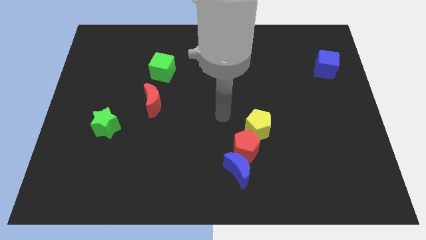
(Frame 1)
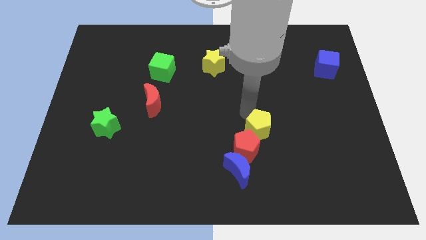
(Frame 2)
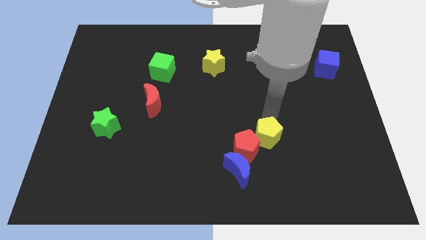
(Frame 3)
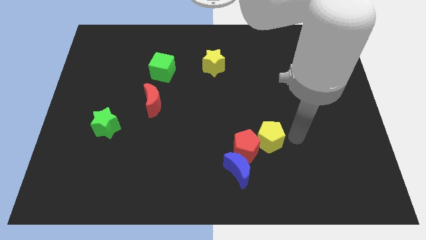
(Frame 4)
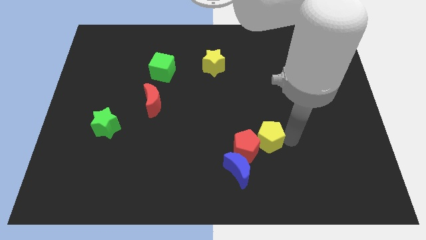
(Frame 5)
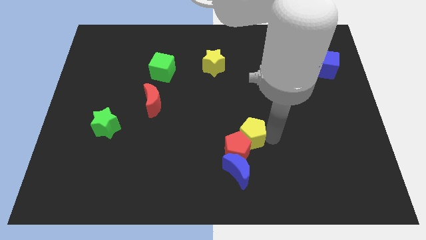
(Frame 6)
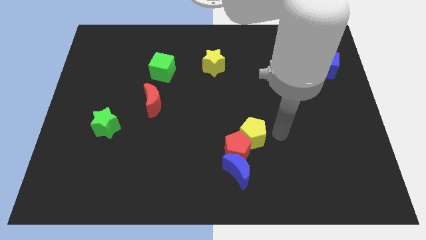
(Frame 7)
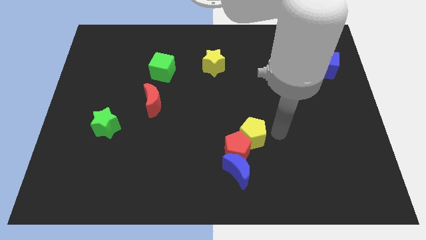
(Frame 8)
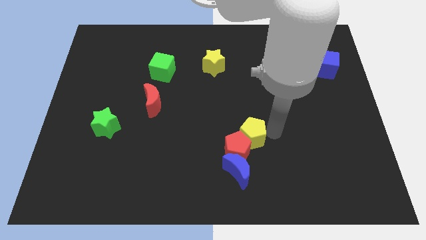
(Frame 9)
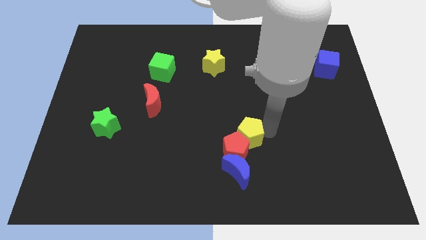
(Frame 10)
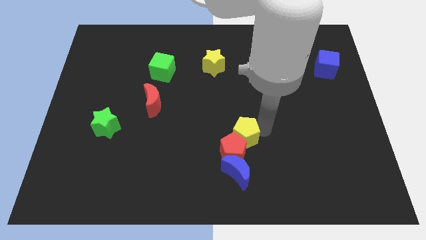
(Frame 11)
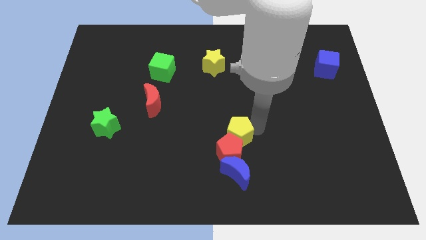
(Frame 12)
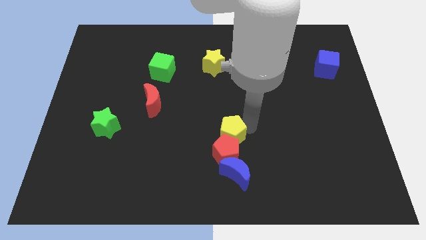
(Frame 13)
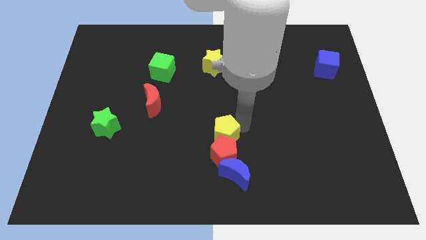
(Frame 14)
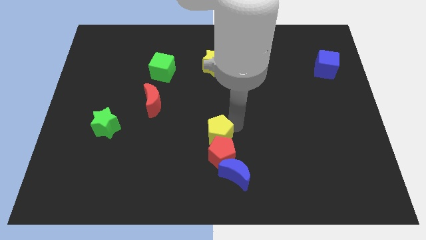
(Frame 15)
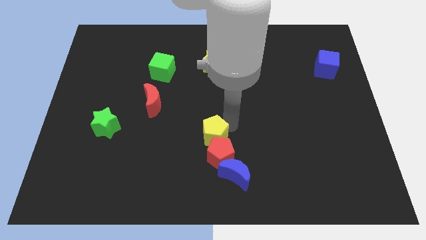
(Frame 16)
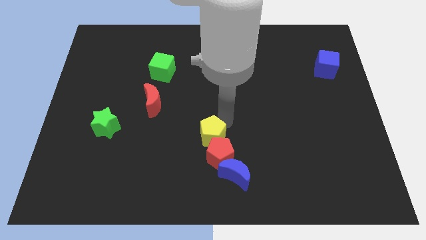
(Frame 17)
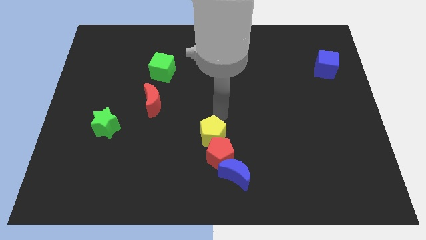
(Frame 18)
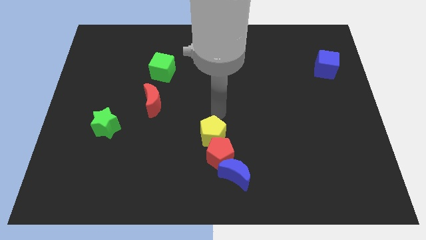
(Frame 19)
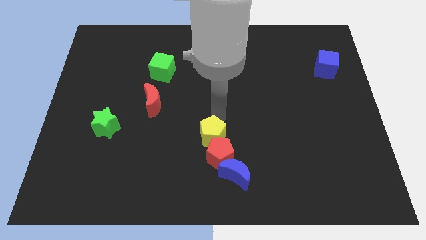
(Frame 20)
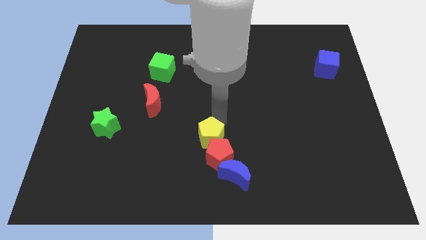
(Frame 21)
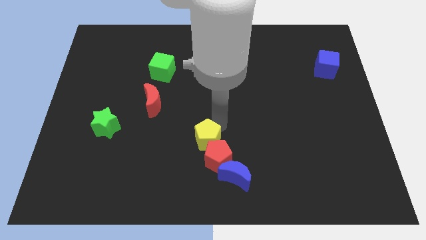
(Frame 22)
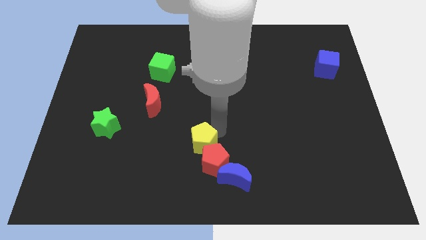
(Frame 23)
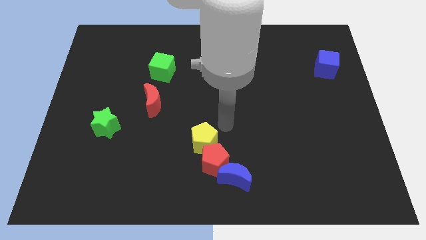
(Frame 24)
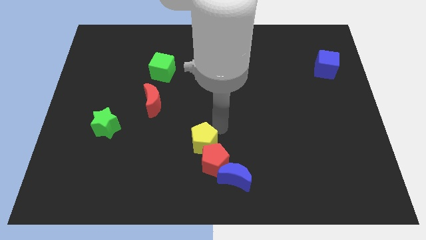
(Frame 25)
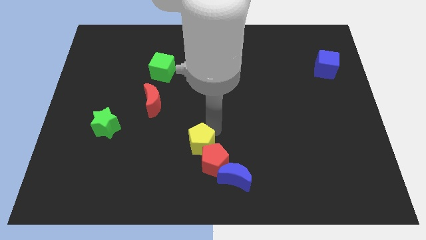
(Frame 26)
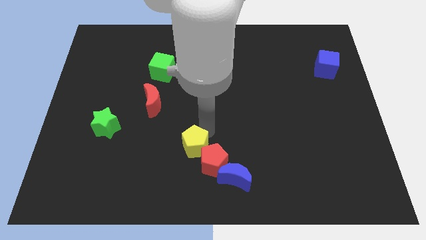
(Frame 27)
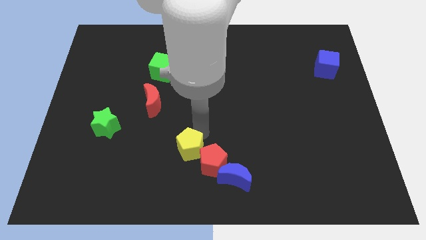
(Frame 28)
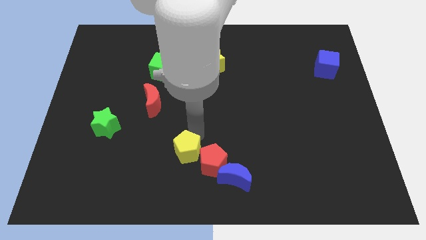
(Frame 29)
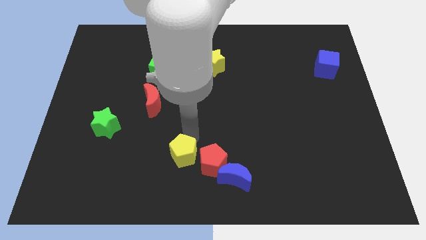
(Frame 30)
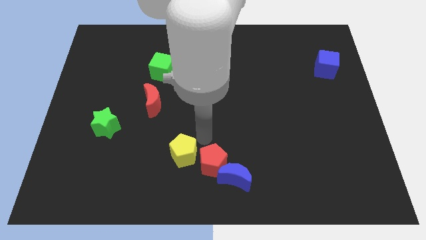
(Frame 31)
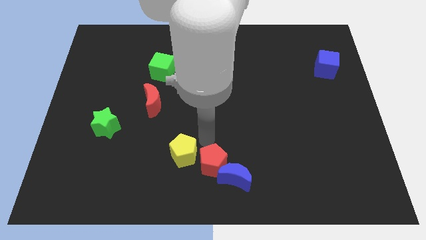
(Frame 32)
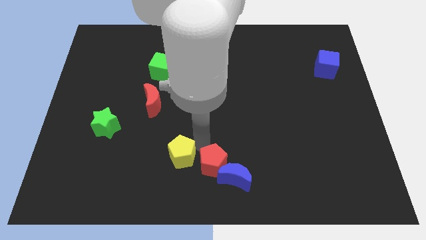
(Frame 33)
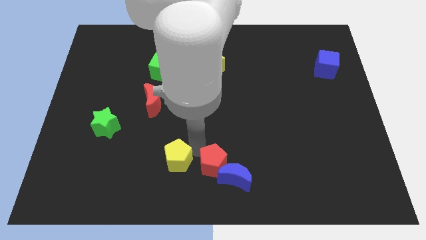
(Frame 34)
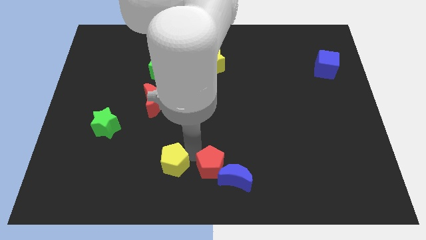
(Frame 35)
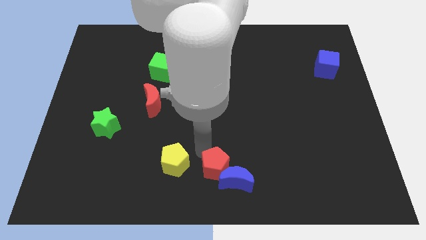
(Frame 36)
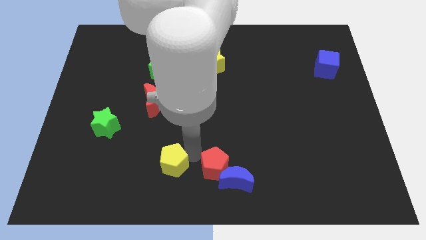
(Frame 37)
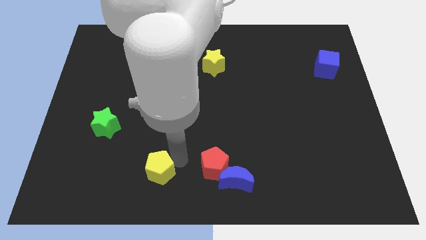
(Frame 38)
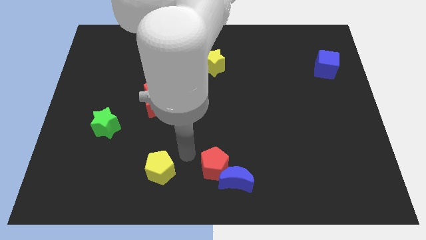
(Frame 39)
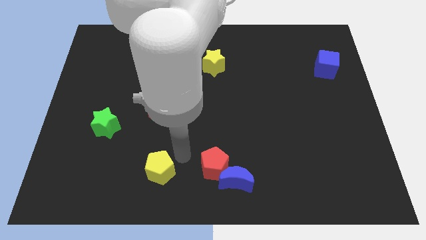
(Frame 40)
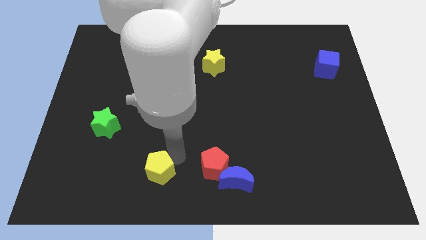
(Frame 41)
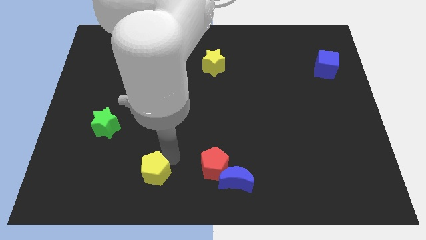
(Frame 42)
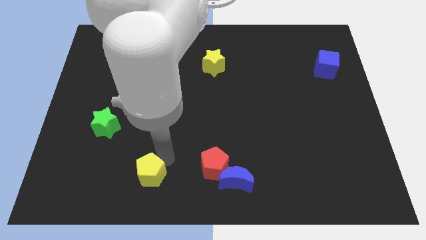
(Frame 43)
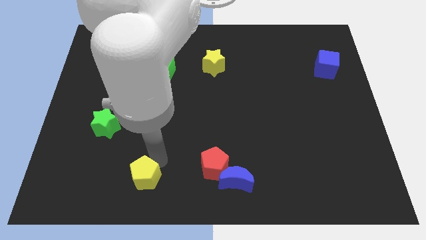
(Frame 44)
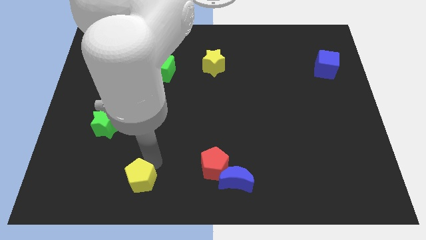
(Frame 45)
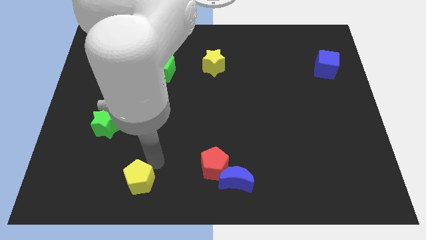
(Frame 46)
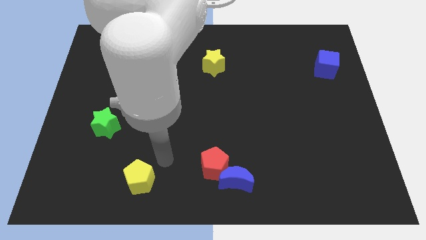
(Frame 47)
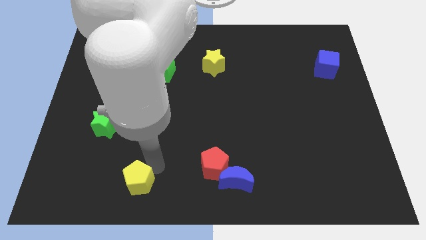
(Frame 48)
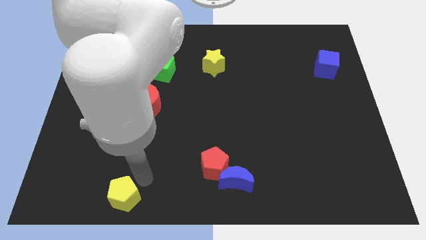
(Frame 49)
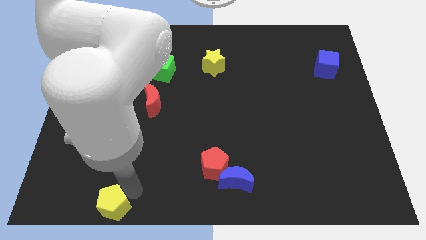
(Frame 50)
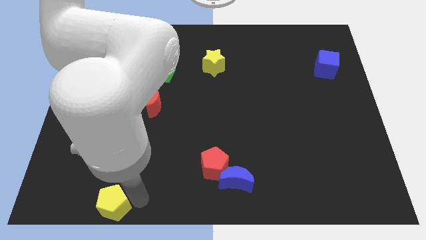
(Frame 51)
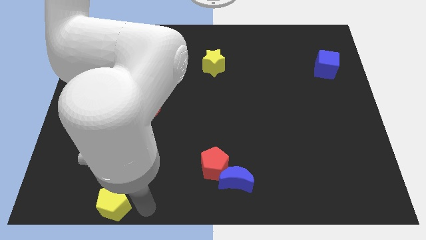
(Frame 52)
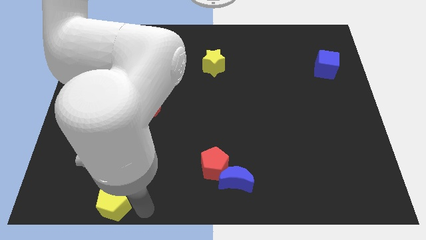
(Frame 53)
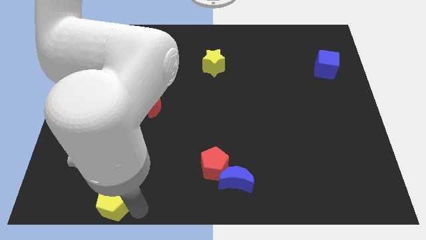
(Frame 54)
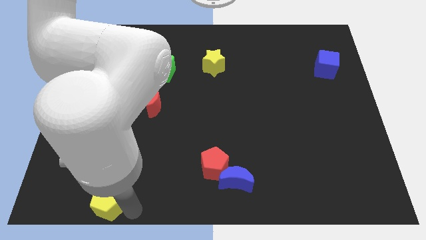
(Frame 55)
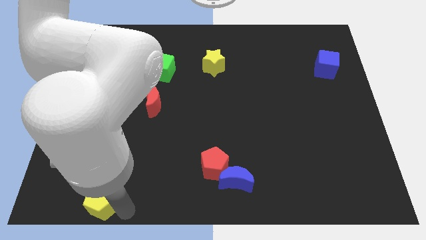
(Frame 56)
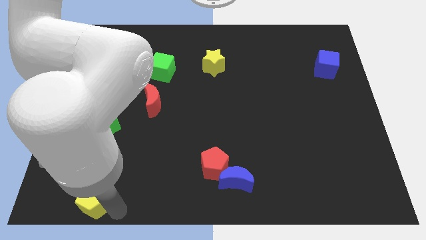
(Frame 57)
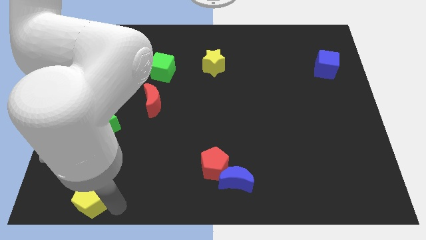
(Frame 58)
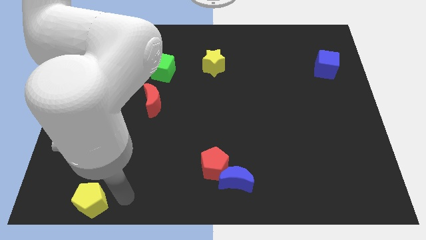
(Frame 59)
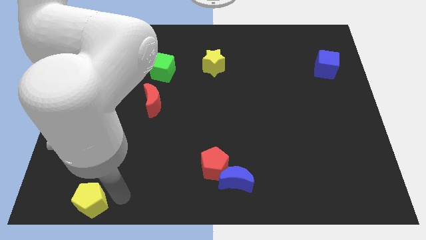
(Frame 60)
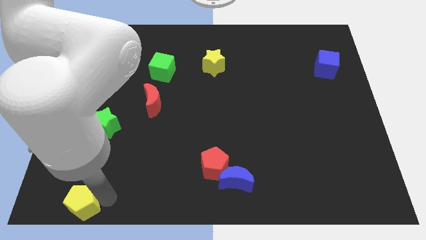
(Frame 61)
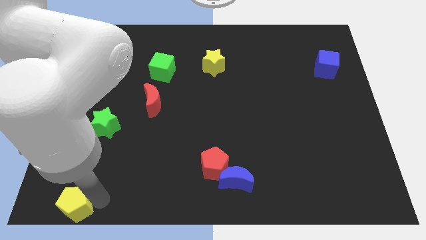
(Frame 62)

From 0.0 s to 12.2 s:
put the yellow pentagon to the bottom left of the board

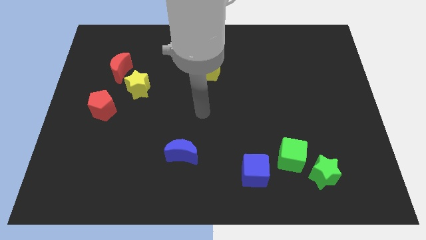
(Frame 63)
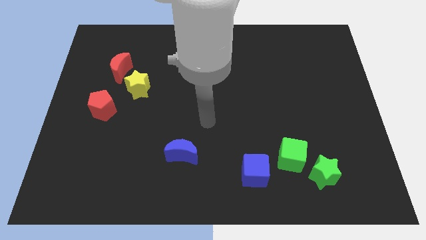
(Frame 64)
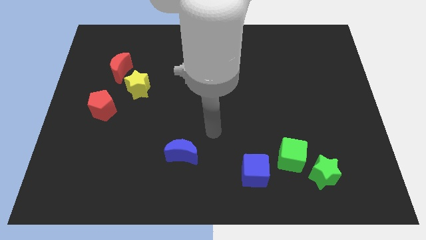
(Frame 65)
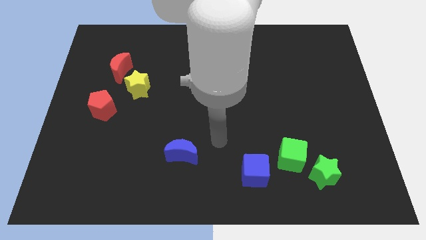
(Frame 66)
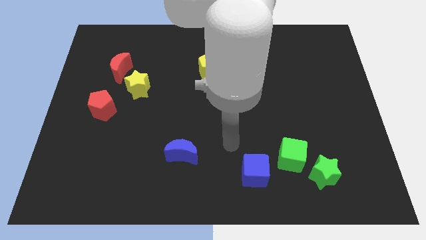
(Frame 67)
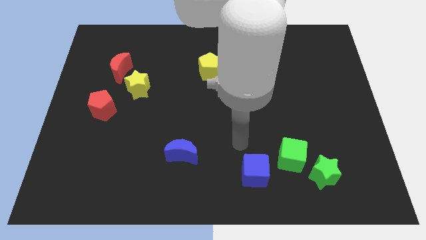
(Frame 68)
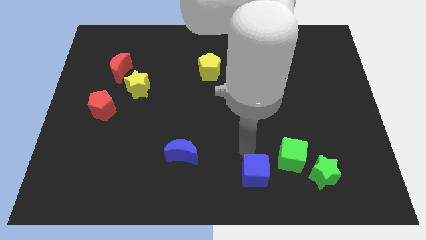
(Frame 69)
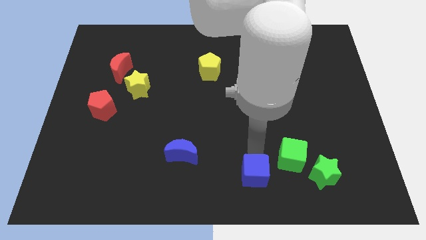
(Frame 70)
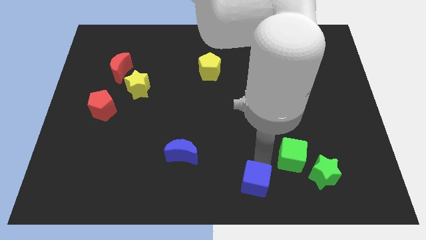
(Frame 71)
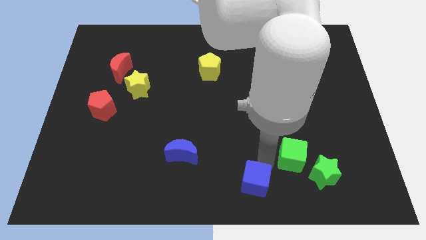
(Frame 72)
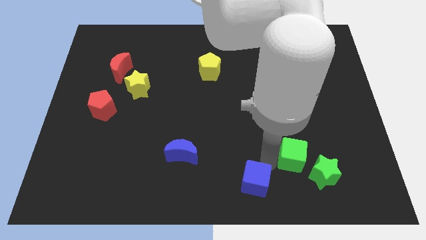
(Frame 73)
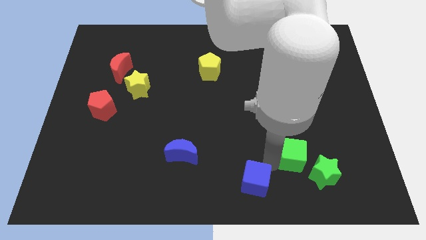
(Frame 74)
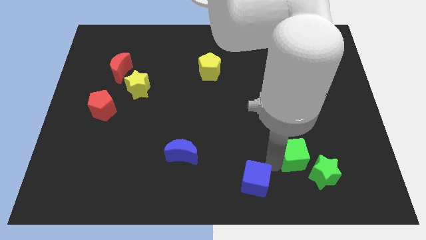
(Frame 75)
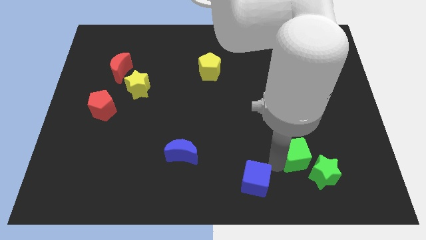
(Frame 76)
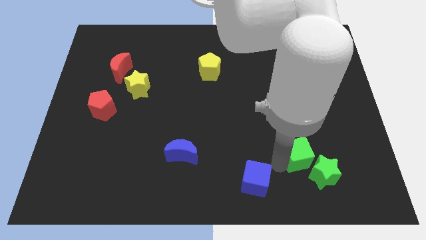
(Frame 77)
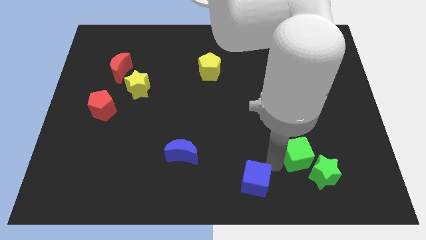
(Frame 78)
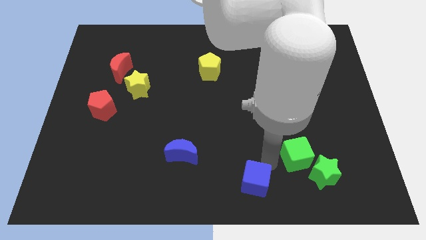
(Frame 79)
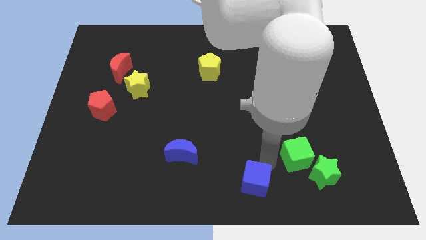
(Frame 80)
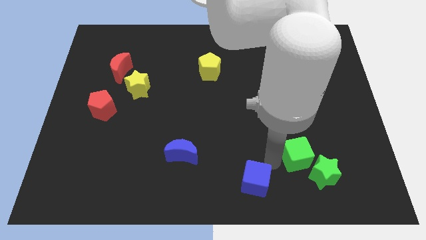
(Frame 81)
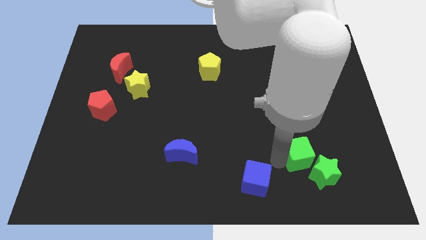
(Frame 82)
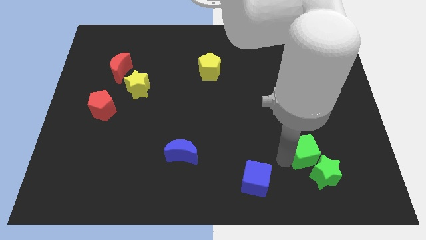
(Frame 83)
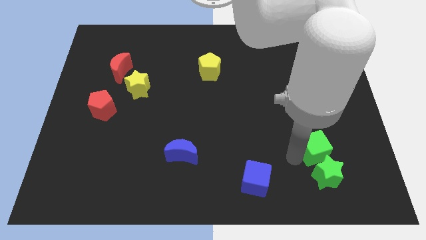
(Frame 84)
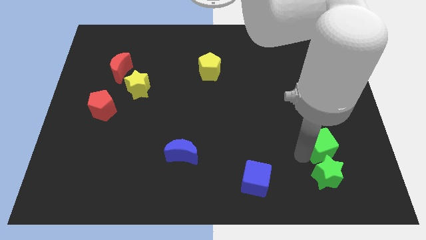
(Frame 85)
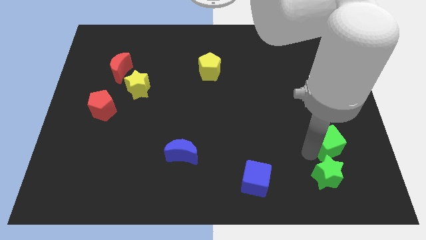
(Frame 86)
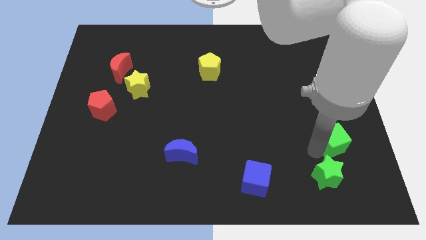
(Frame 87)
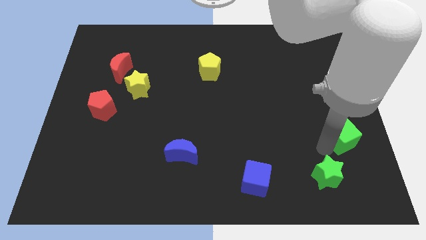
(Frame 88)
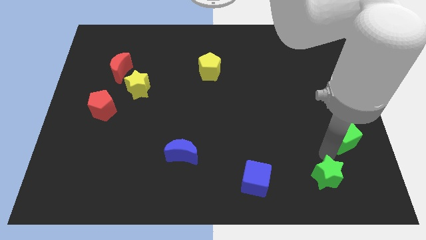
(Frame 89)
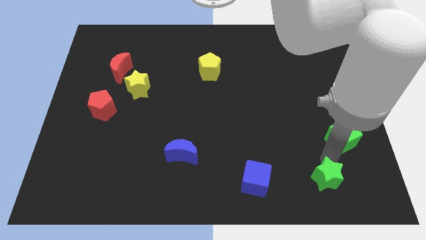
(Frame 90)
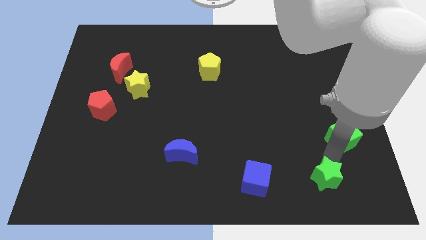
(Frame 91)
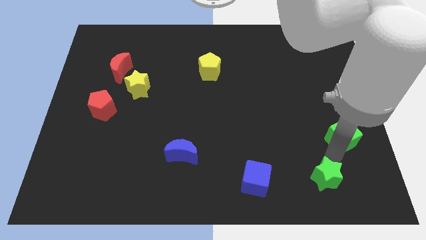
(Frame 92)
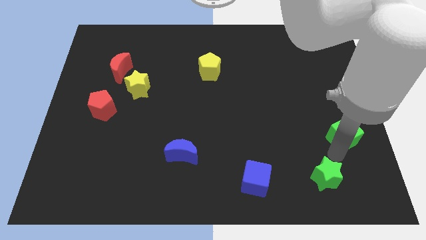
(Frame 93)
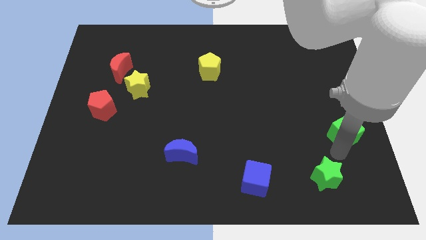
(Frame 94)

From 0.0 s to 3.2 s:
slide the green cube to the right side
